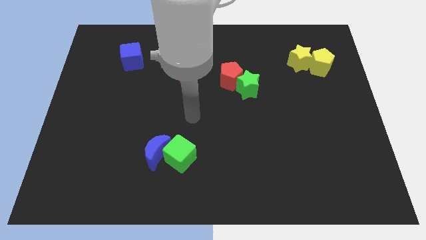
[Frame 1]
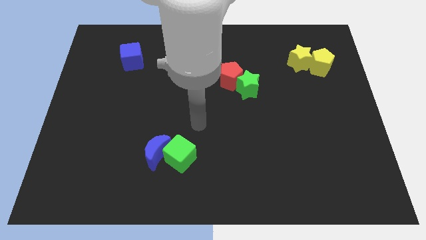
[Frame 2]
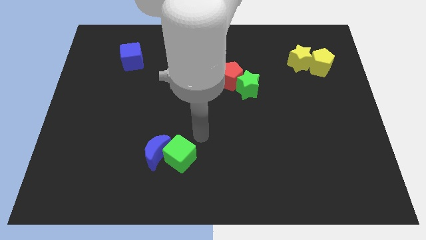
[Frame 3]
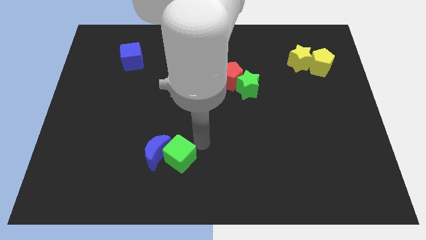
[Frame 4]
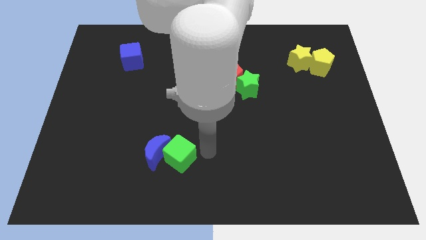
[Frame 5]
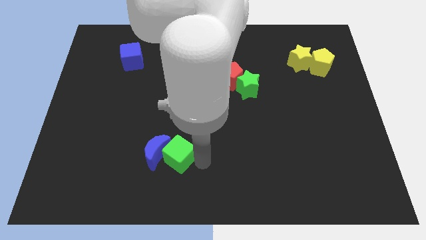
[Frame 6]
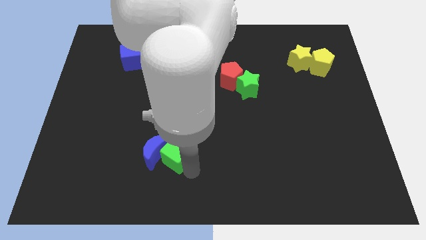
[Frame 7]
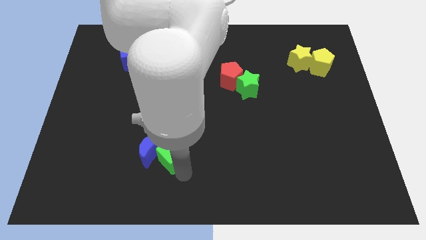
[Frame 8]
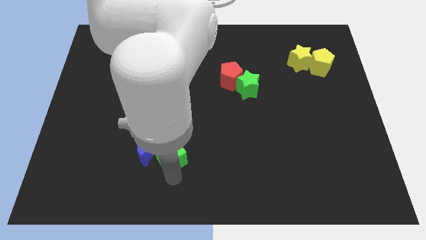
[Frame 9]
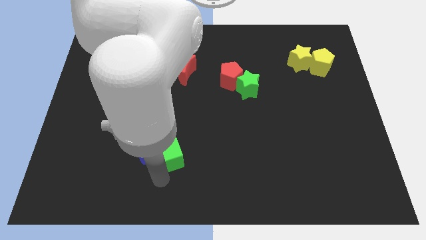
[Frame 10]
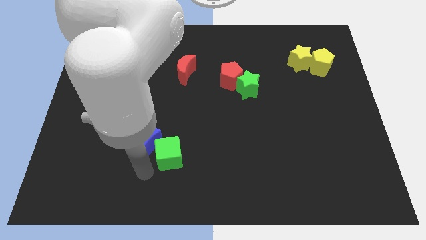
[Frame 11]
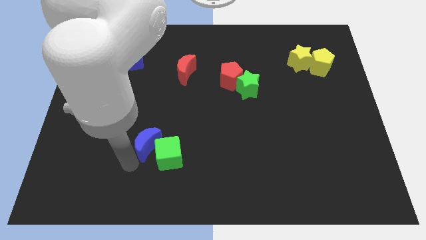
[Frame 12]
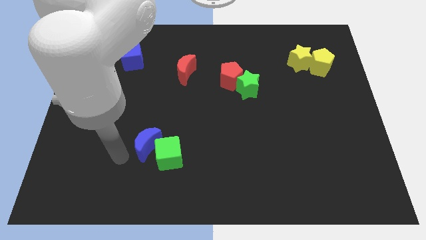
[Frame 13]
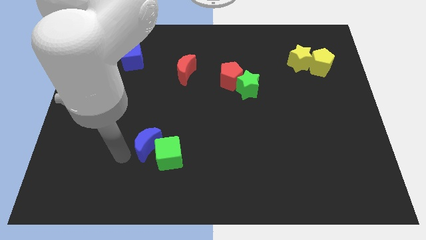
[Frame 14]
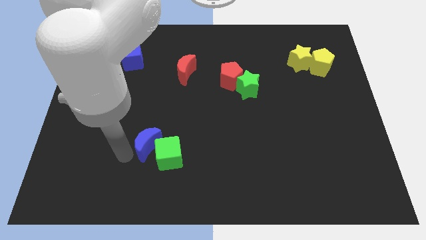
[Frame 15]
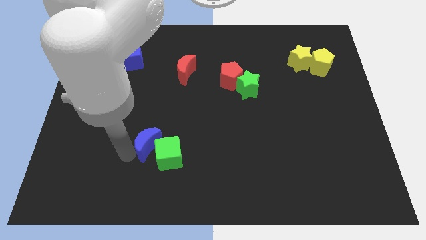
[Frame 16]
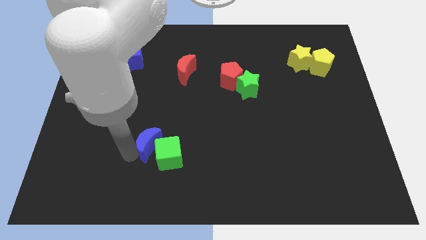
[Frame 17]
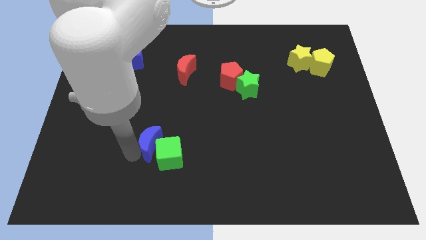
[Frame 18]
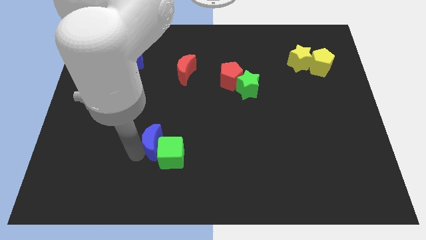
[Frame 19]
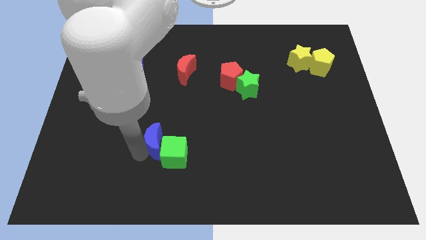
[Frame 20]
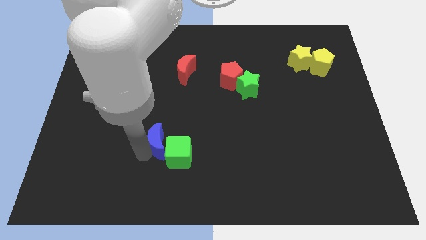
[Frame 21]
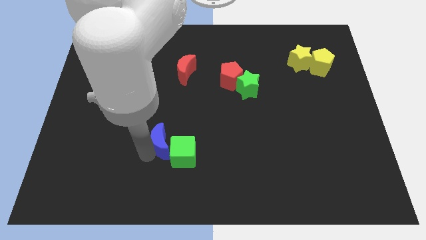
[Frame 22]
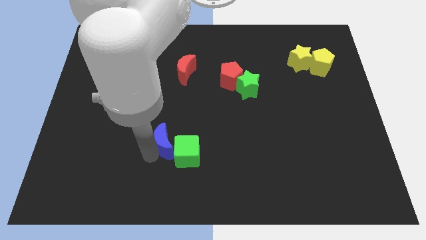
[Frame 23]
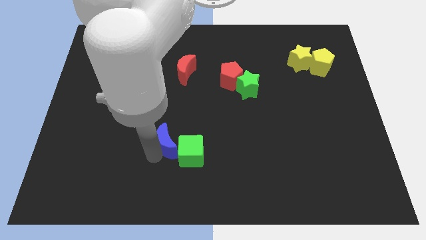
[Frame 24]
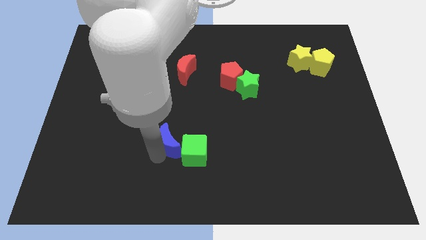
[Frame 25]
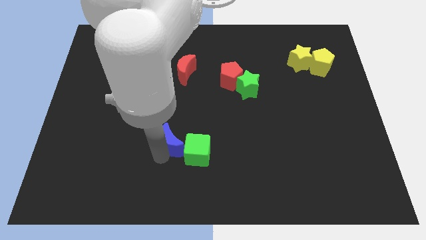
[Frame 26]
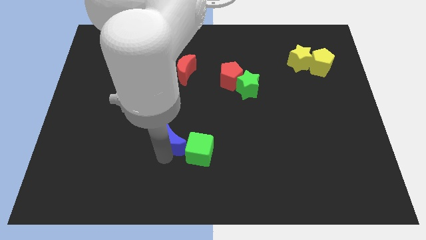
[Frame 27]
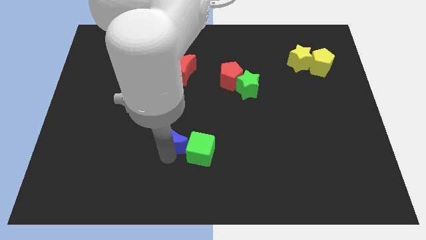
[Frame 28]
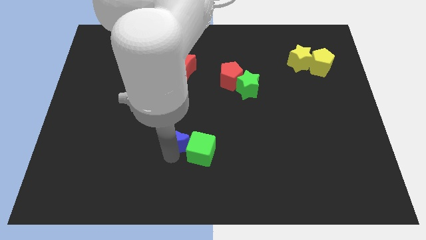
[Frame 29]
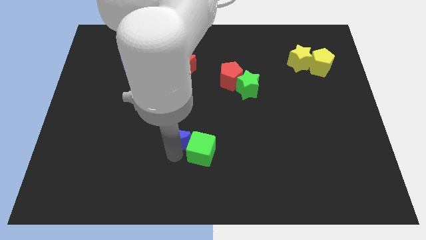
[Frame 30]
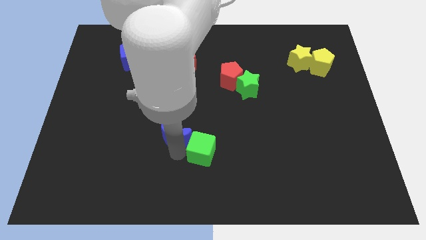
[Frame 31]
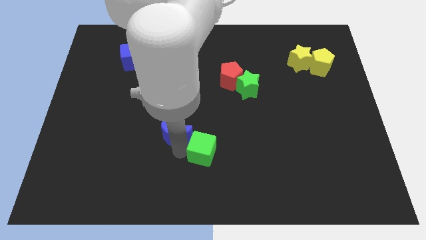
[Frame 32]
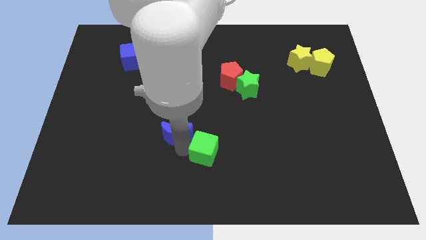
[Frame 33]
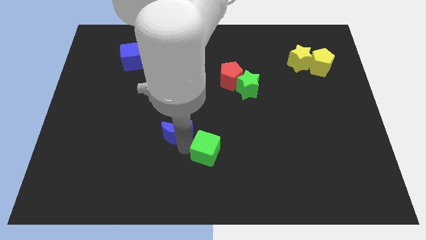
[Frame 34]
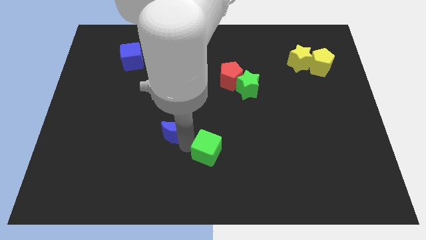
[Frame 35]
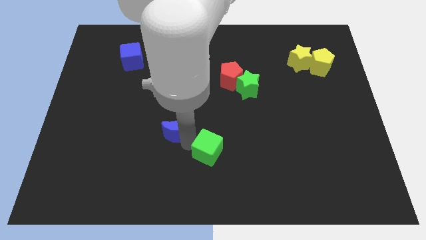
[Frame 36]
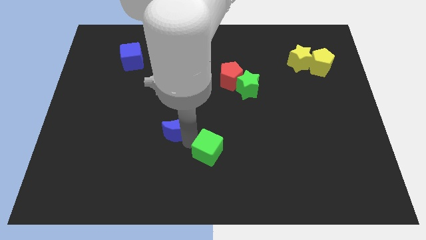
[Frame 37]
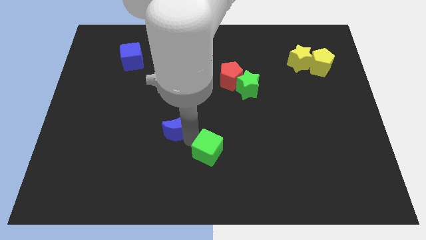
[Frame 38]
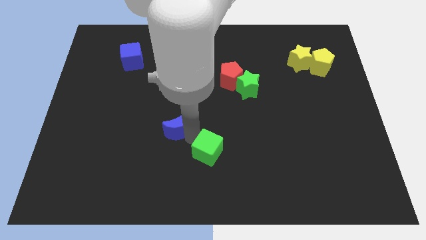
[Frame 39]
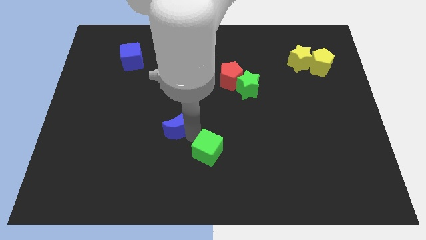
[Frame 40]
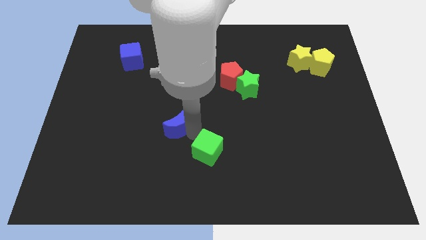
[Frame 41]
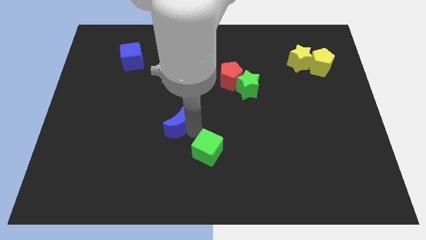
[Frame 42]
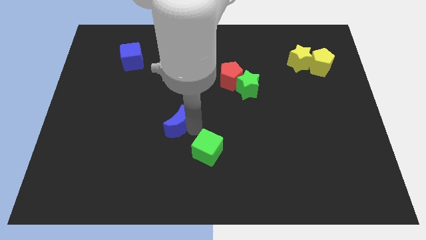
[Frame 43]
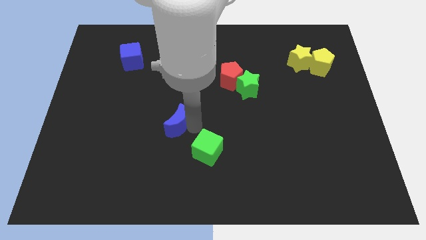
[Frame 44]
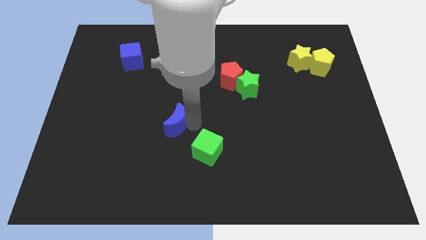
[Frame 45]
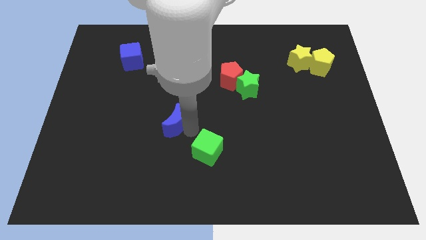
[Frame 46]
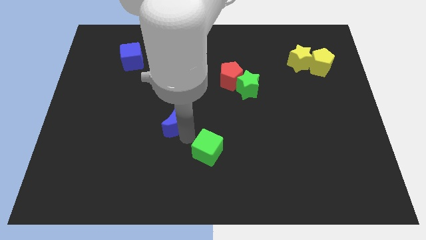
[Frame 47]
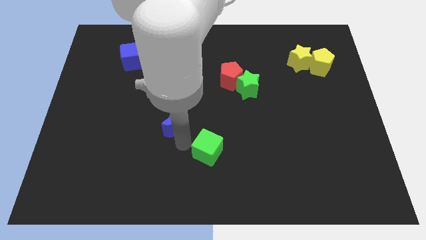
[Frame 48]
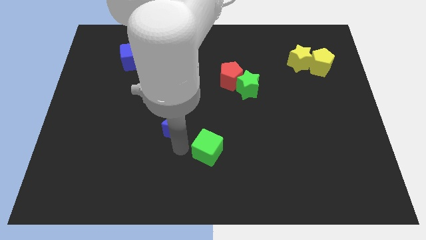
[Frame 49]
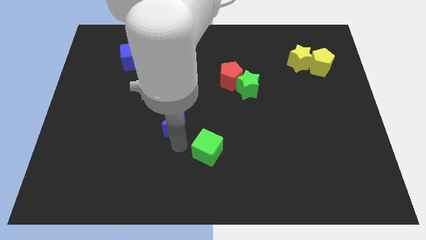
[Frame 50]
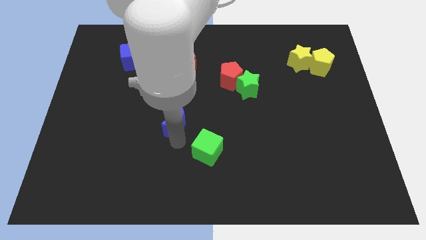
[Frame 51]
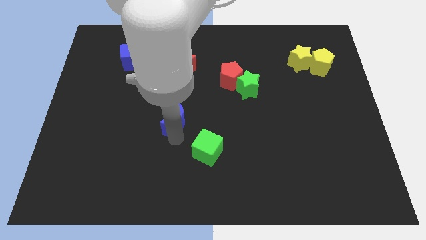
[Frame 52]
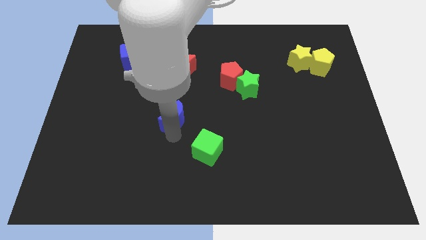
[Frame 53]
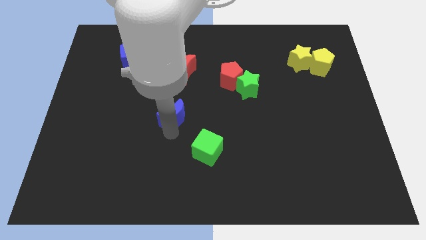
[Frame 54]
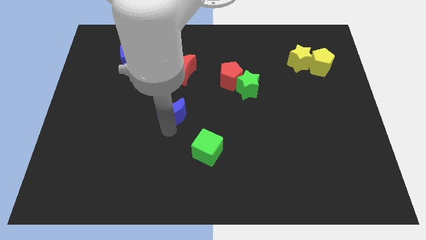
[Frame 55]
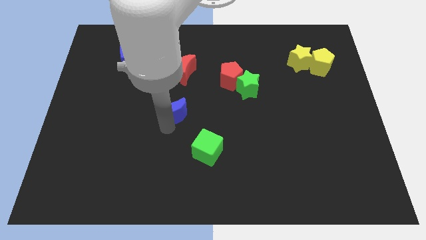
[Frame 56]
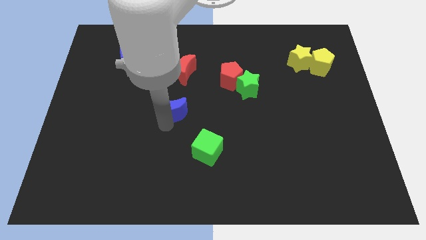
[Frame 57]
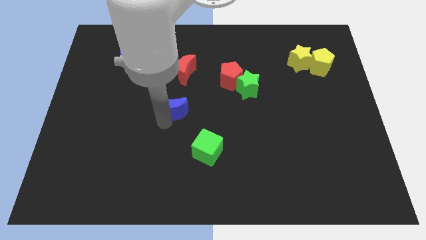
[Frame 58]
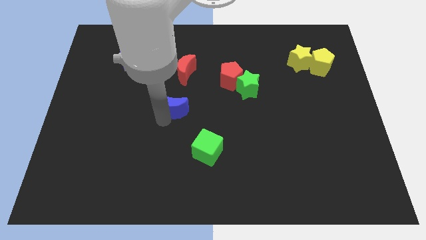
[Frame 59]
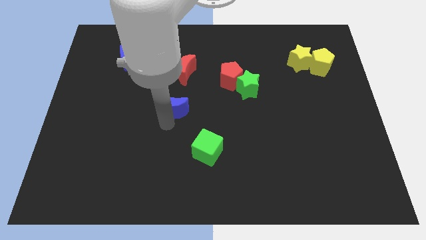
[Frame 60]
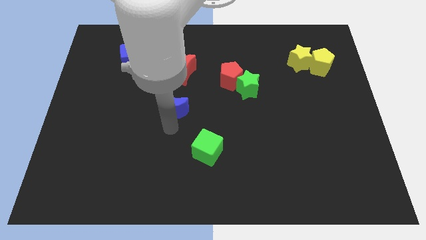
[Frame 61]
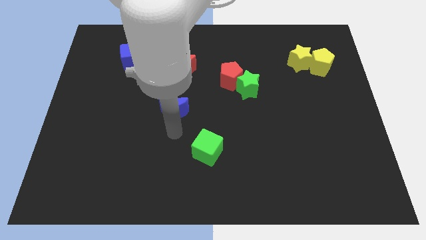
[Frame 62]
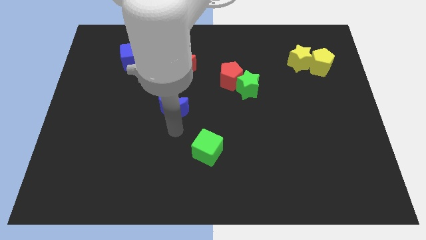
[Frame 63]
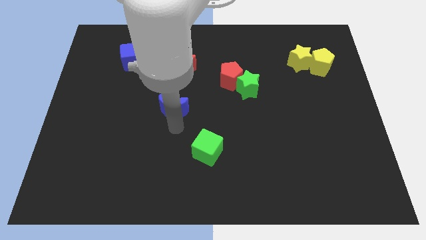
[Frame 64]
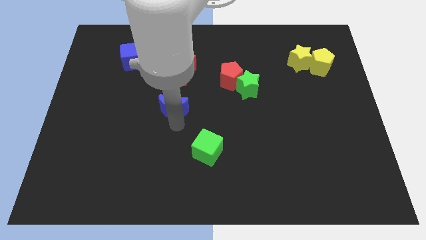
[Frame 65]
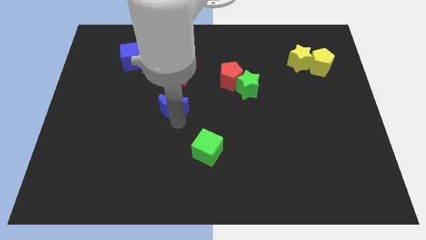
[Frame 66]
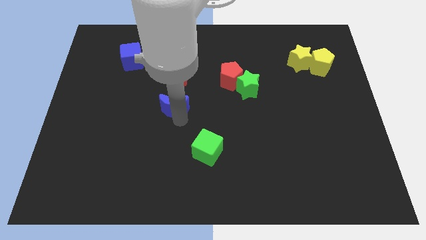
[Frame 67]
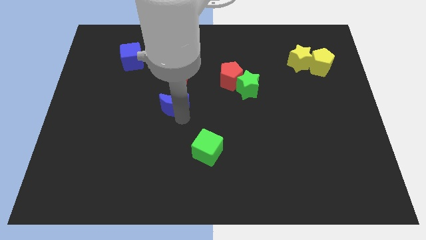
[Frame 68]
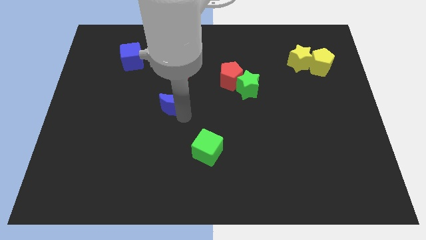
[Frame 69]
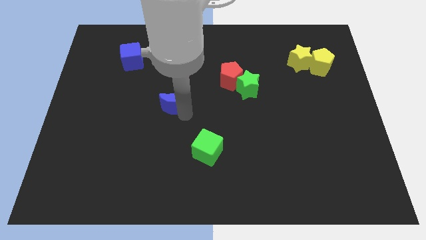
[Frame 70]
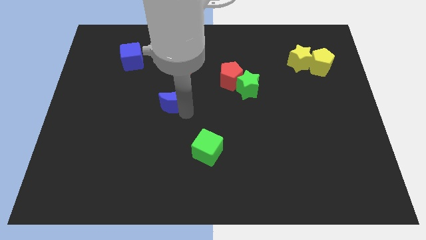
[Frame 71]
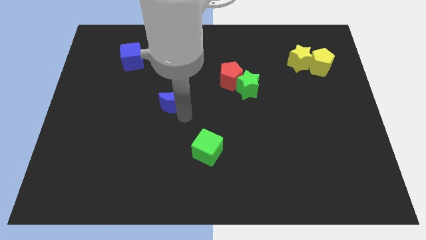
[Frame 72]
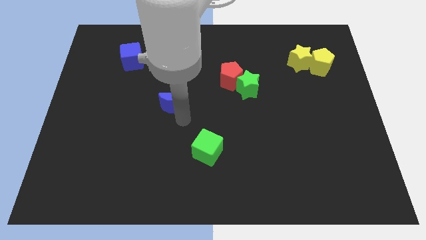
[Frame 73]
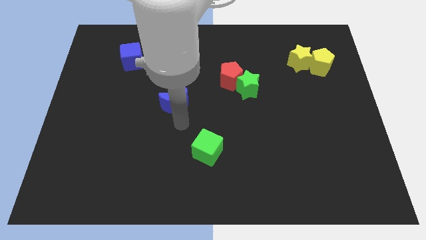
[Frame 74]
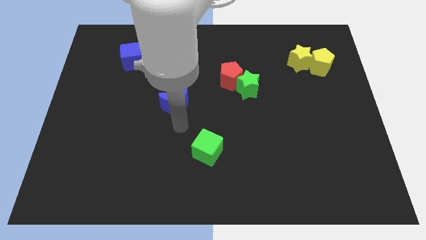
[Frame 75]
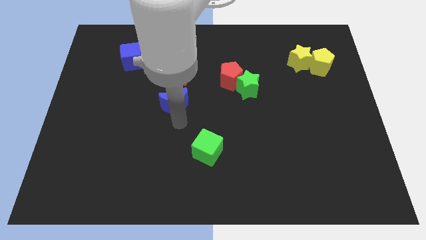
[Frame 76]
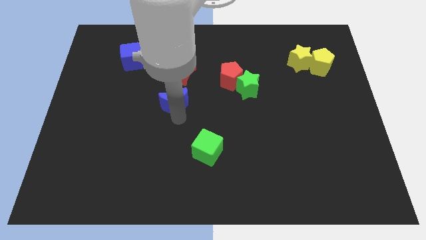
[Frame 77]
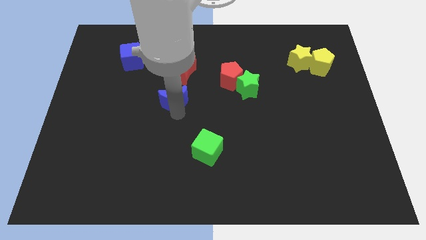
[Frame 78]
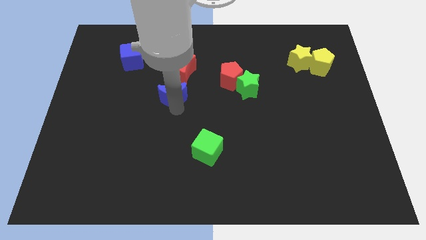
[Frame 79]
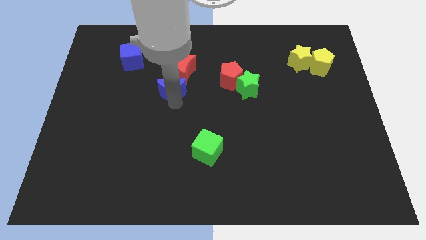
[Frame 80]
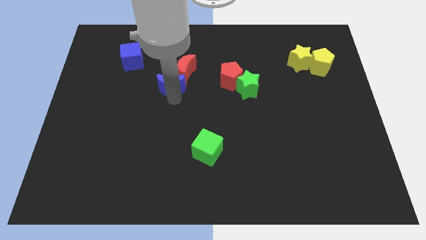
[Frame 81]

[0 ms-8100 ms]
slide the blue moon to the left side of the red pentagon
